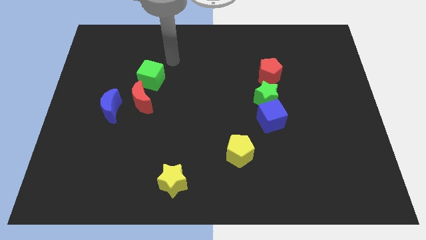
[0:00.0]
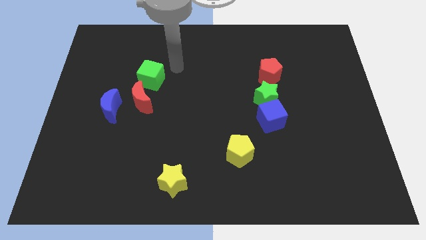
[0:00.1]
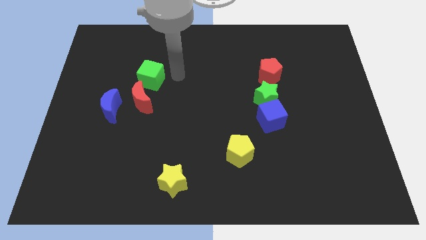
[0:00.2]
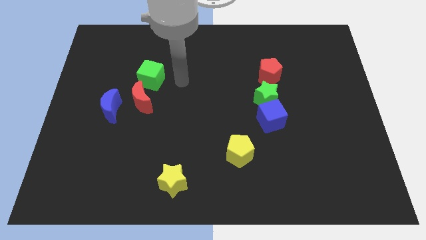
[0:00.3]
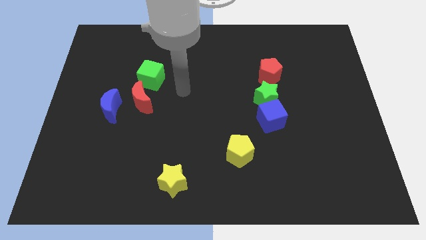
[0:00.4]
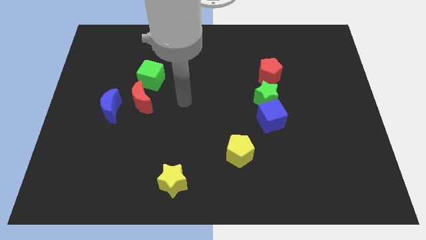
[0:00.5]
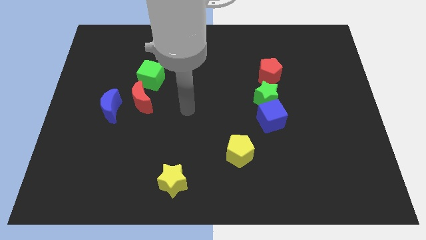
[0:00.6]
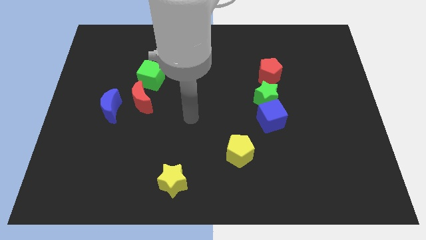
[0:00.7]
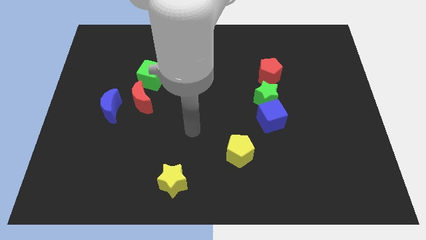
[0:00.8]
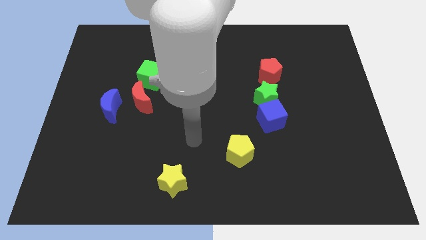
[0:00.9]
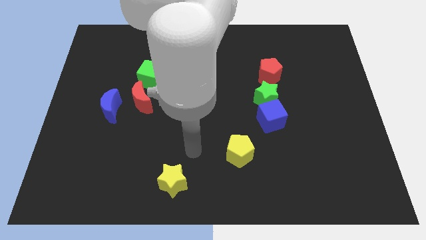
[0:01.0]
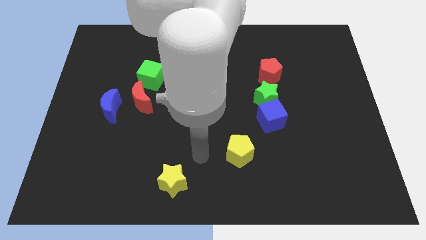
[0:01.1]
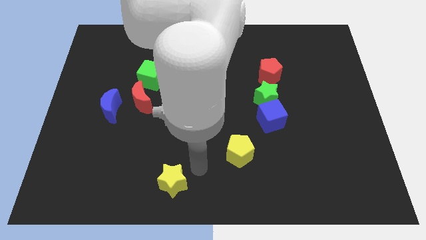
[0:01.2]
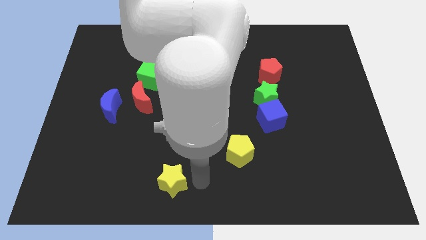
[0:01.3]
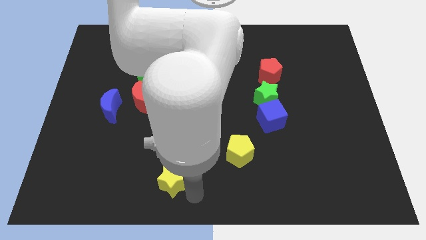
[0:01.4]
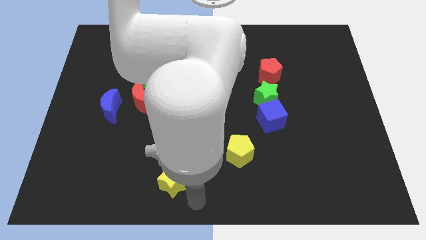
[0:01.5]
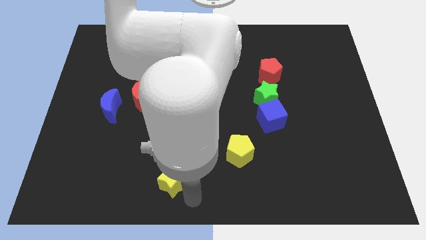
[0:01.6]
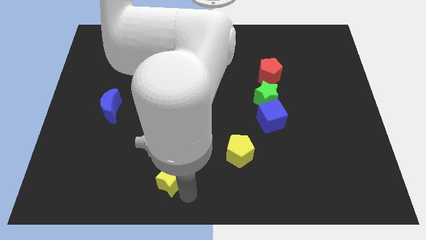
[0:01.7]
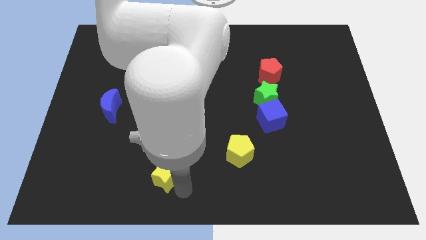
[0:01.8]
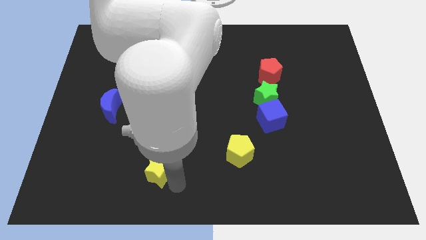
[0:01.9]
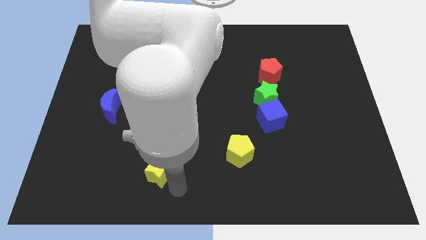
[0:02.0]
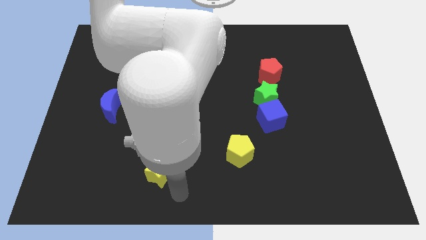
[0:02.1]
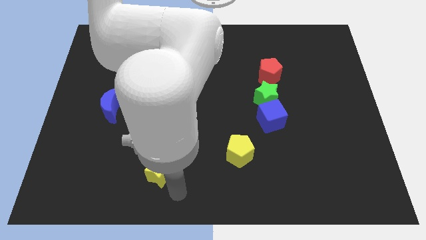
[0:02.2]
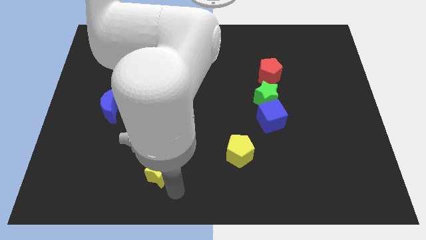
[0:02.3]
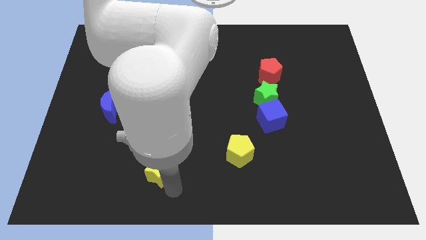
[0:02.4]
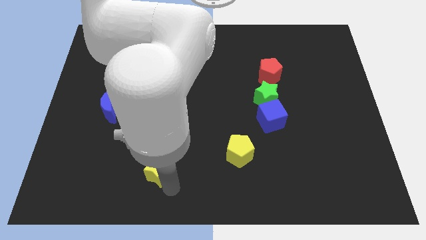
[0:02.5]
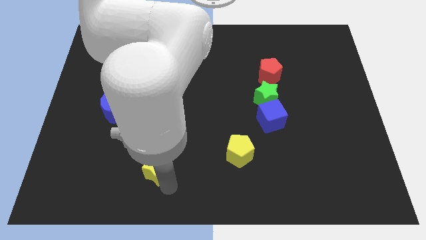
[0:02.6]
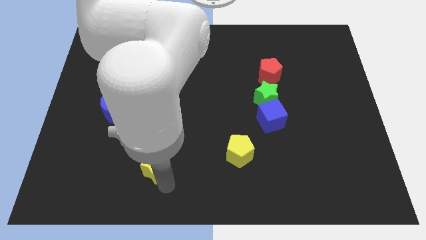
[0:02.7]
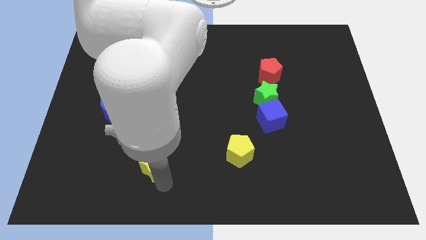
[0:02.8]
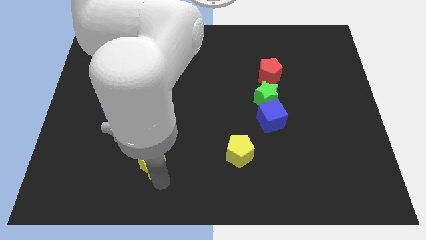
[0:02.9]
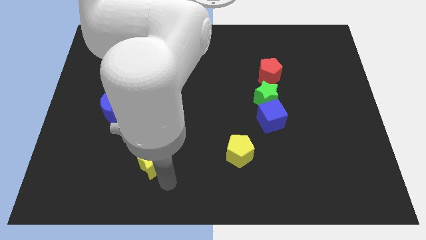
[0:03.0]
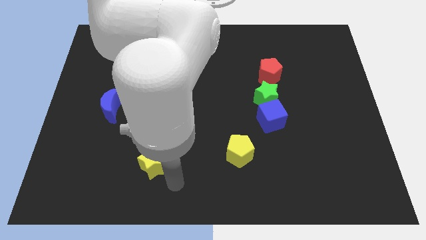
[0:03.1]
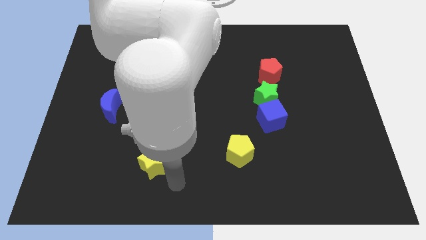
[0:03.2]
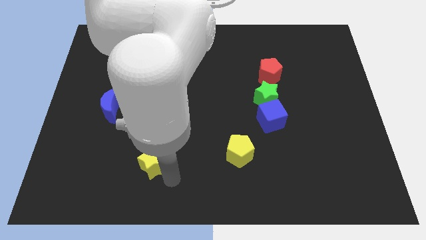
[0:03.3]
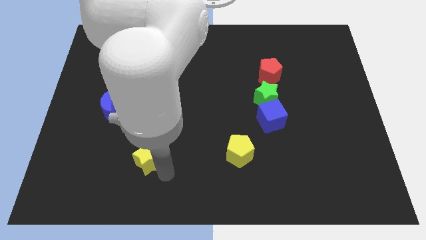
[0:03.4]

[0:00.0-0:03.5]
move the yellow star a little bit diagonally up and to the left

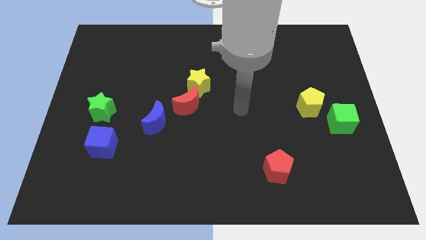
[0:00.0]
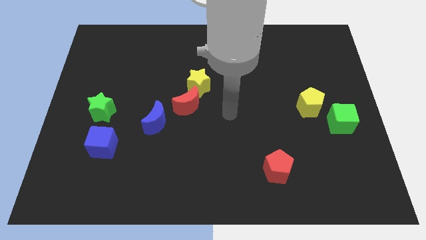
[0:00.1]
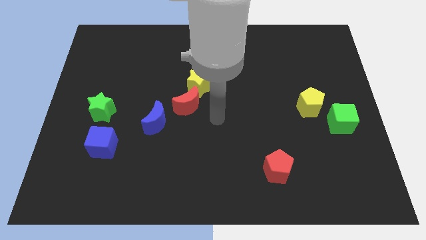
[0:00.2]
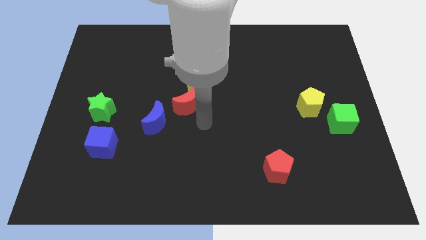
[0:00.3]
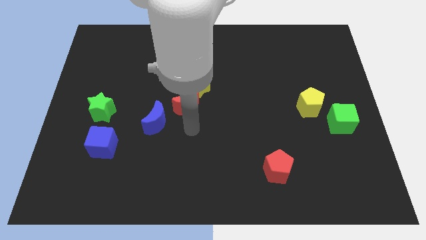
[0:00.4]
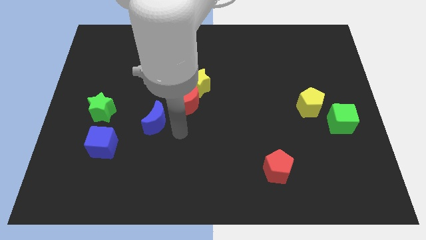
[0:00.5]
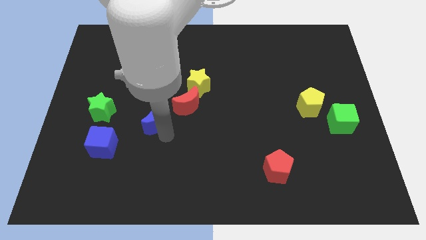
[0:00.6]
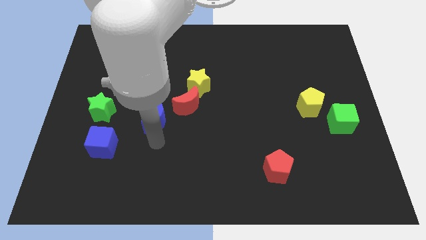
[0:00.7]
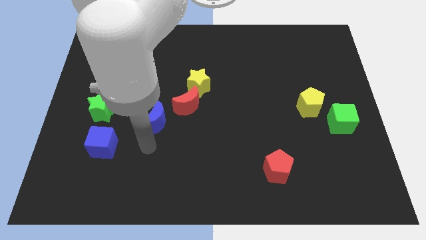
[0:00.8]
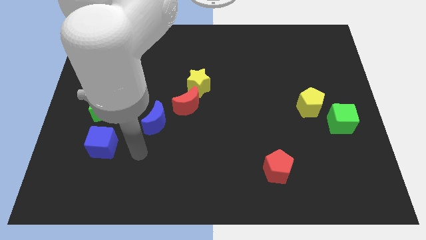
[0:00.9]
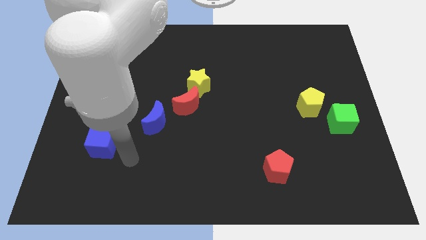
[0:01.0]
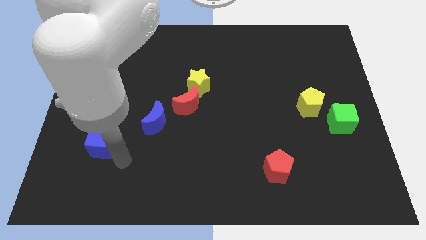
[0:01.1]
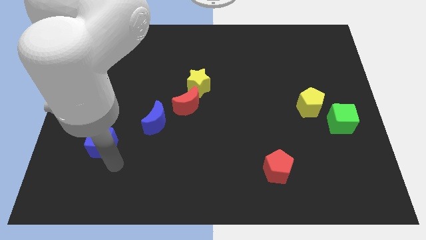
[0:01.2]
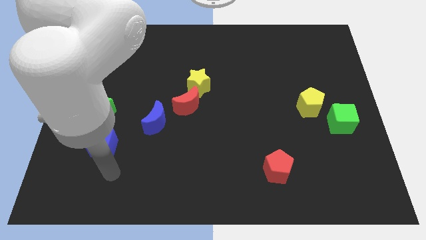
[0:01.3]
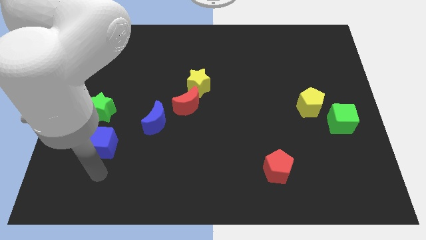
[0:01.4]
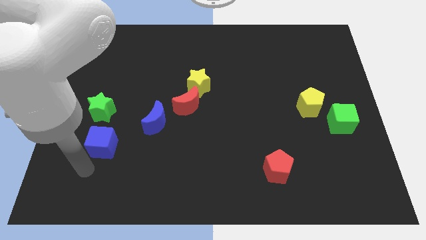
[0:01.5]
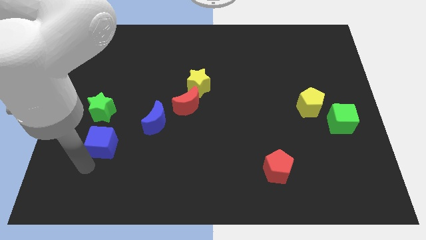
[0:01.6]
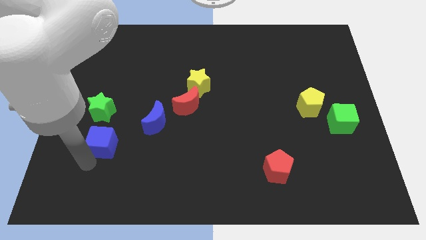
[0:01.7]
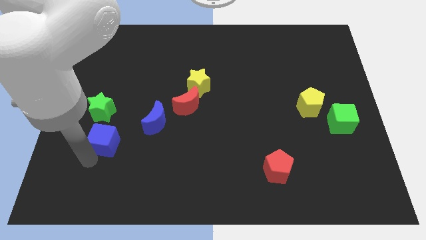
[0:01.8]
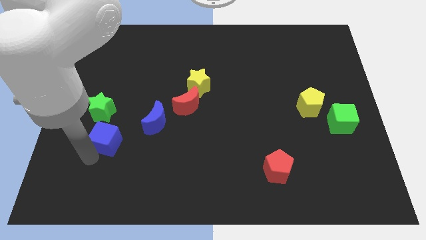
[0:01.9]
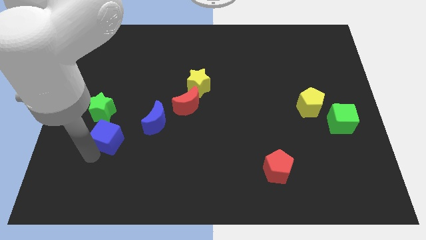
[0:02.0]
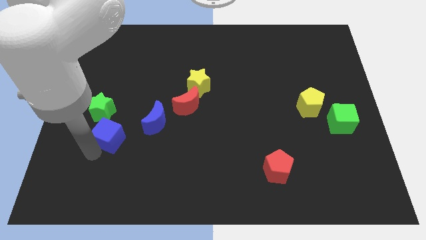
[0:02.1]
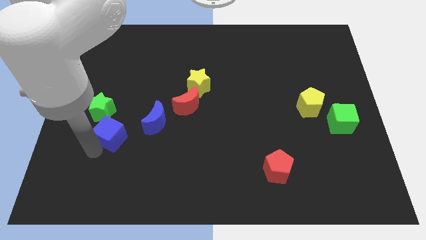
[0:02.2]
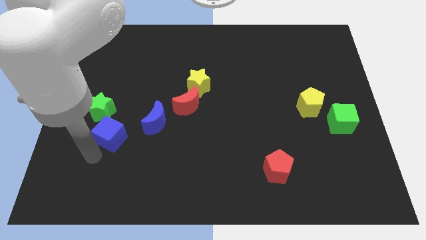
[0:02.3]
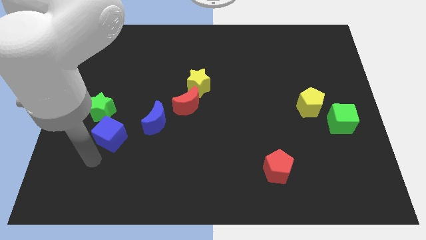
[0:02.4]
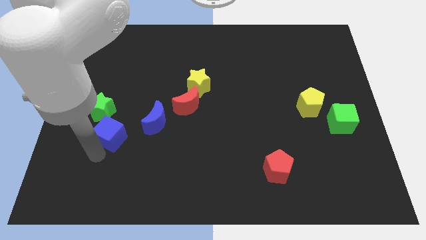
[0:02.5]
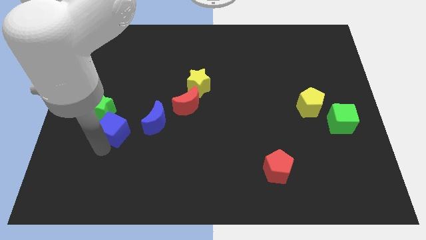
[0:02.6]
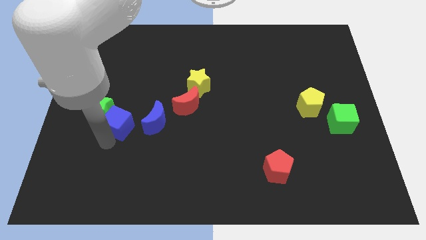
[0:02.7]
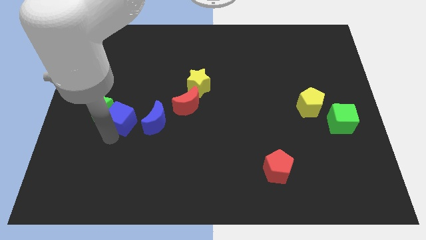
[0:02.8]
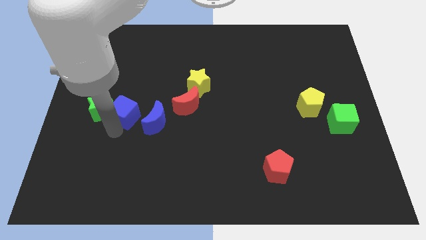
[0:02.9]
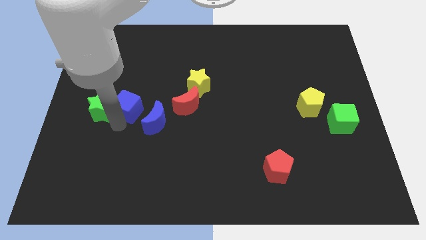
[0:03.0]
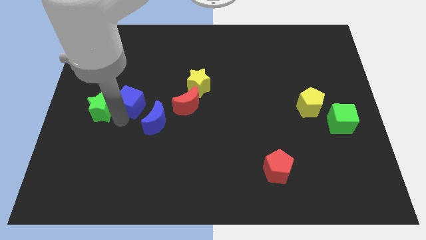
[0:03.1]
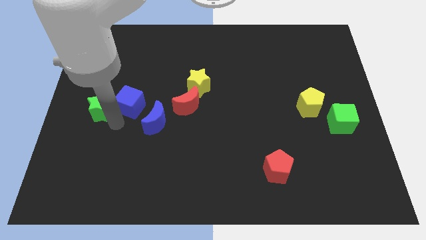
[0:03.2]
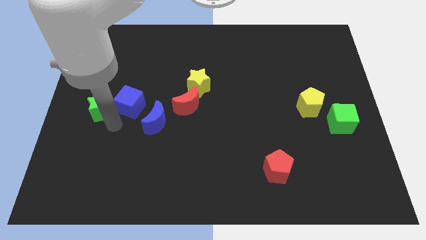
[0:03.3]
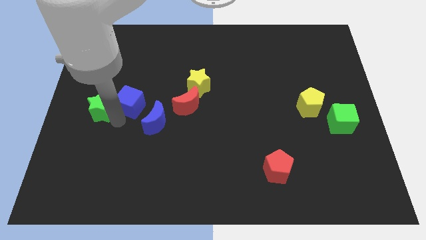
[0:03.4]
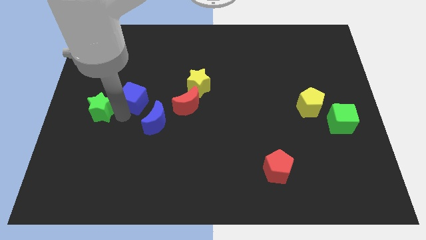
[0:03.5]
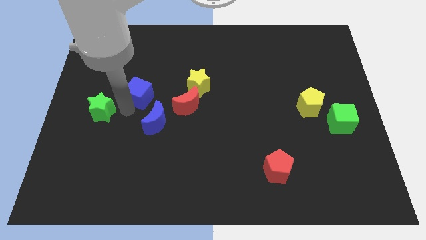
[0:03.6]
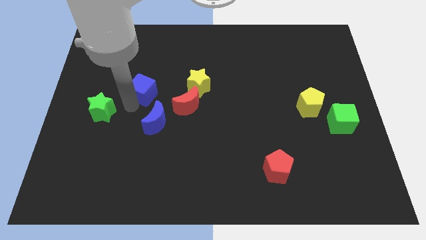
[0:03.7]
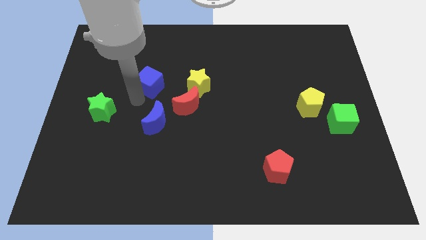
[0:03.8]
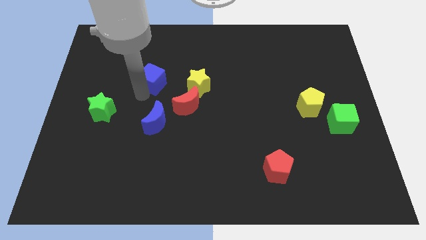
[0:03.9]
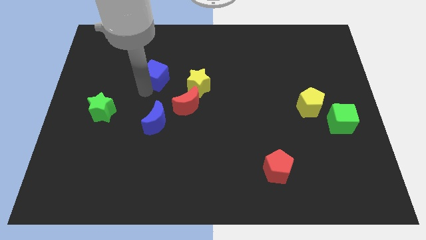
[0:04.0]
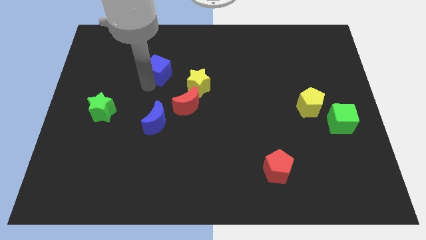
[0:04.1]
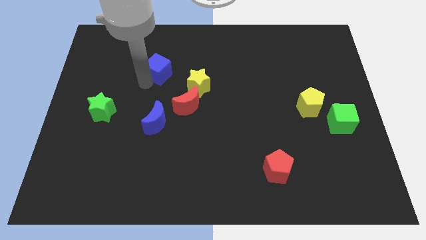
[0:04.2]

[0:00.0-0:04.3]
push the blue cube up and right
